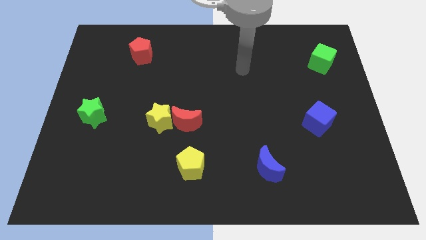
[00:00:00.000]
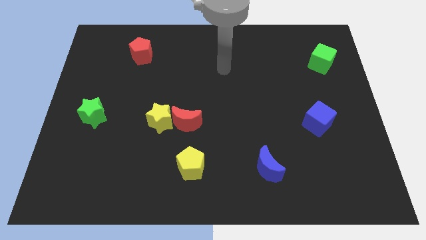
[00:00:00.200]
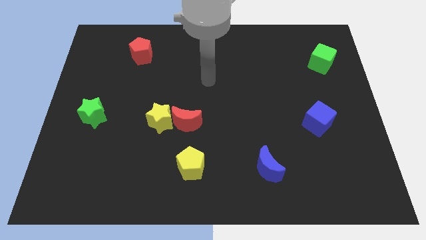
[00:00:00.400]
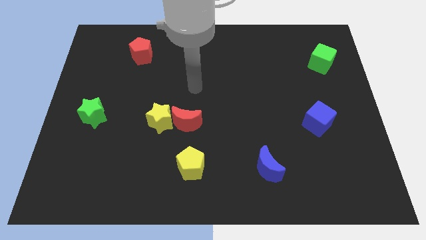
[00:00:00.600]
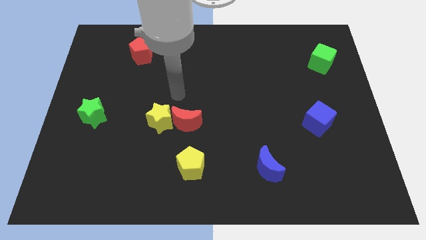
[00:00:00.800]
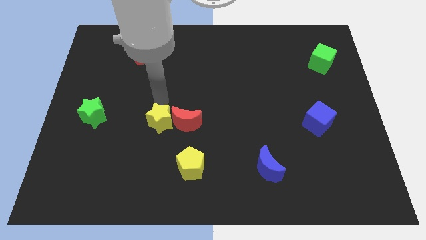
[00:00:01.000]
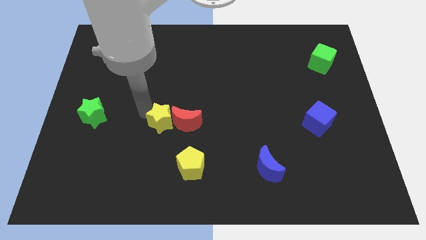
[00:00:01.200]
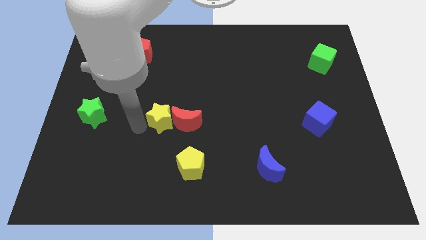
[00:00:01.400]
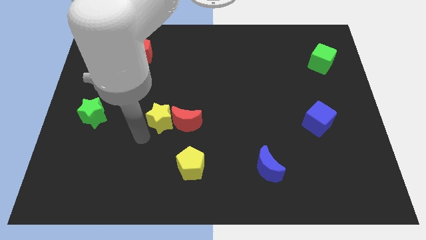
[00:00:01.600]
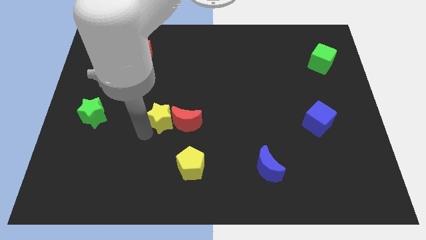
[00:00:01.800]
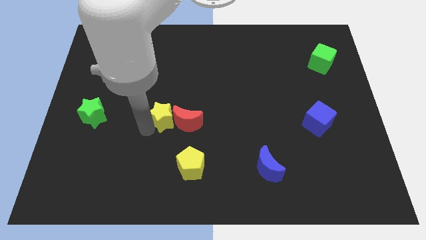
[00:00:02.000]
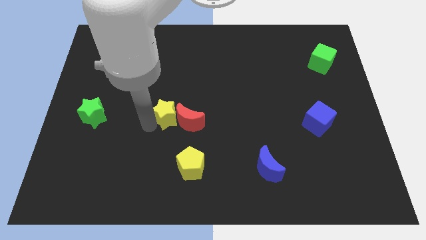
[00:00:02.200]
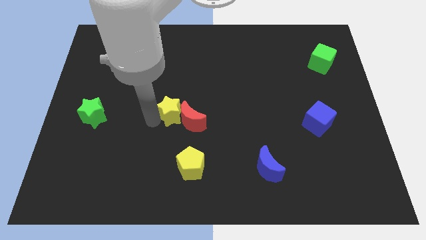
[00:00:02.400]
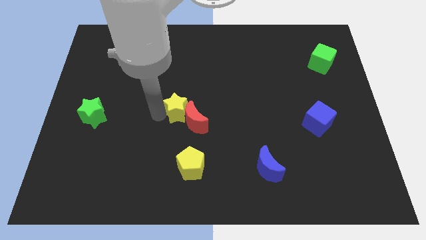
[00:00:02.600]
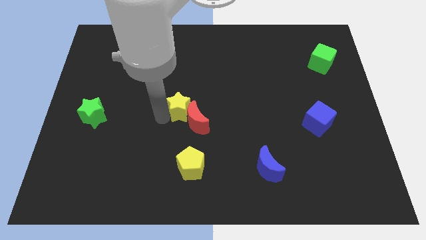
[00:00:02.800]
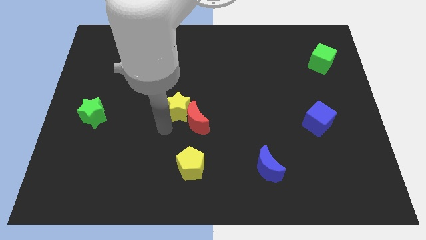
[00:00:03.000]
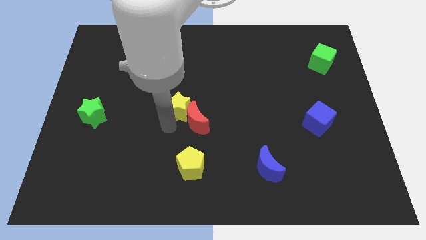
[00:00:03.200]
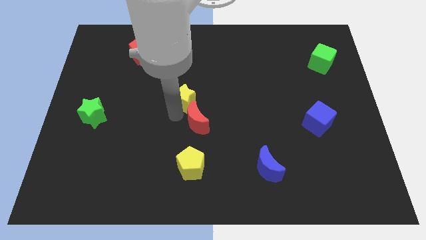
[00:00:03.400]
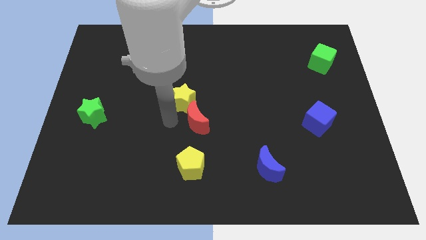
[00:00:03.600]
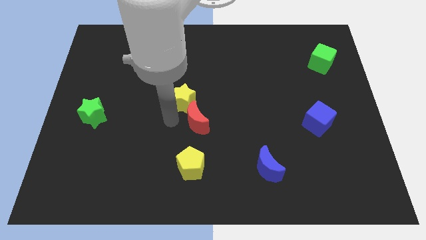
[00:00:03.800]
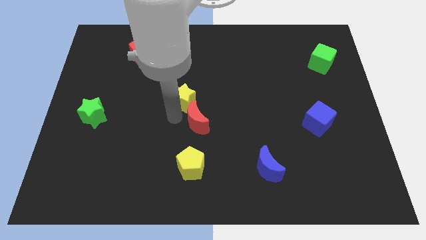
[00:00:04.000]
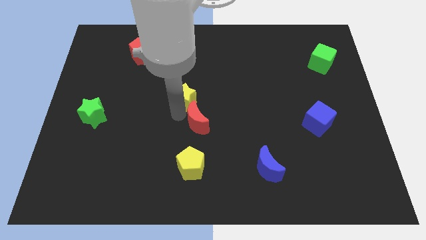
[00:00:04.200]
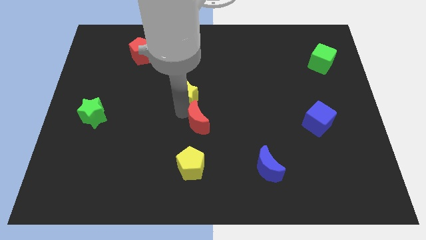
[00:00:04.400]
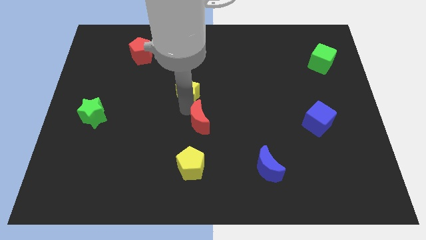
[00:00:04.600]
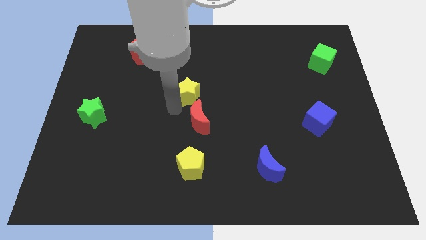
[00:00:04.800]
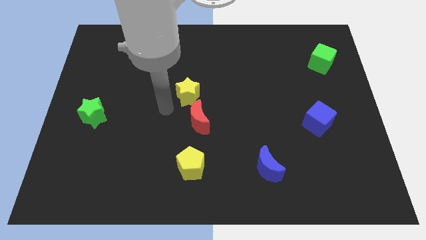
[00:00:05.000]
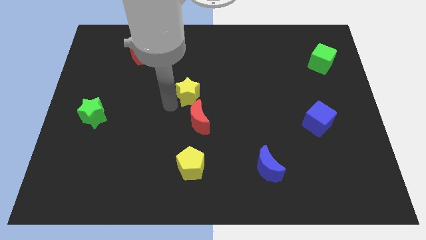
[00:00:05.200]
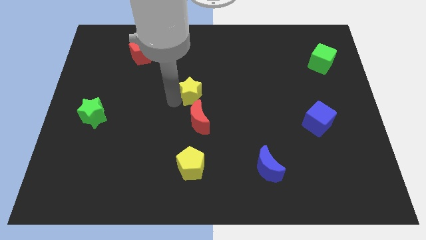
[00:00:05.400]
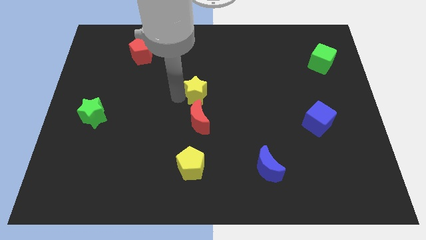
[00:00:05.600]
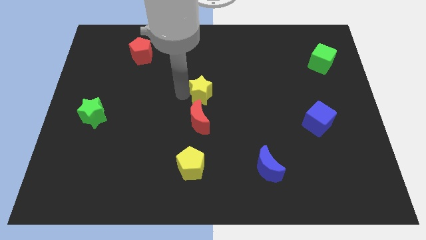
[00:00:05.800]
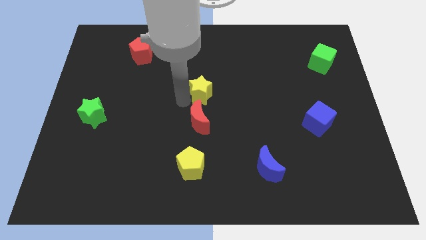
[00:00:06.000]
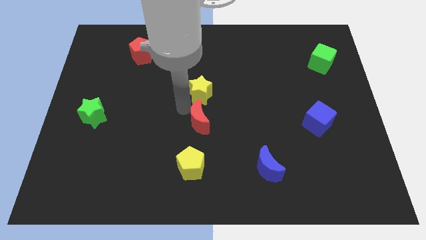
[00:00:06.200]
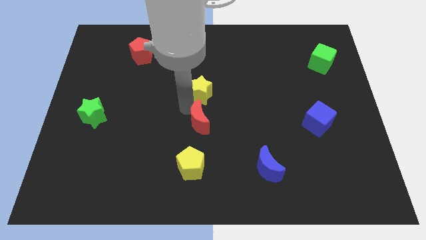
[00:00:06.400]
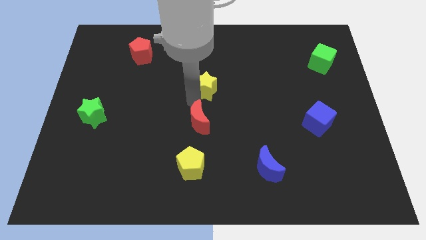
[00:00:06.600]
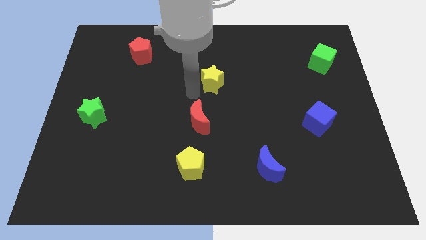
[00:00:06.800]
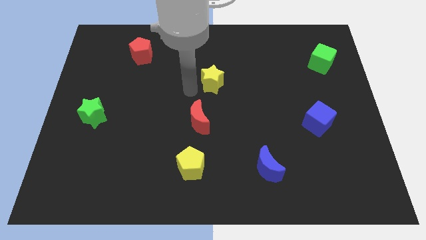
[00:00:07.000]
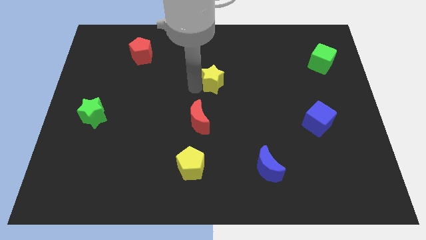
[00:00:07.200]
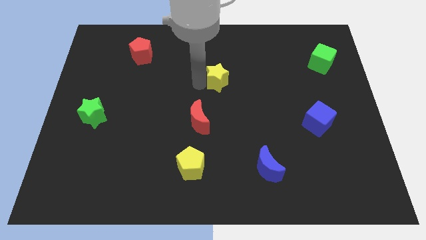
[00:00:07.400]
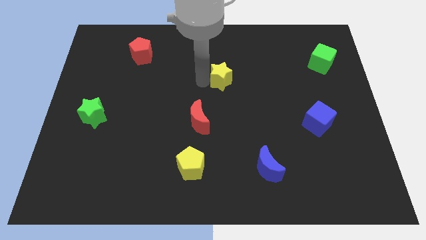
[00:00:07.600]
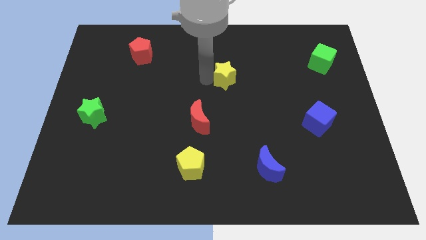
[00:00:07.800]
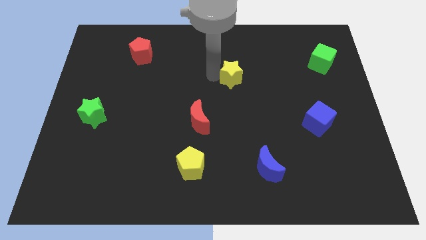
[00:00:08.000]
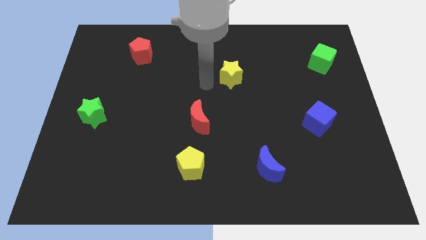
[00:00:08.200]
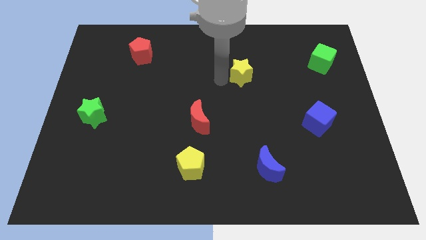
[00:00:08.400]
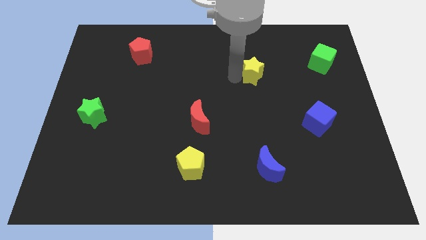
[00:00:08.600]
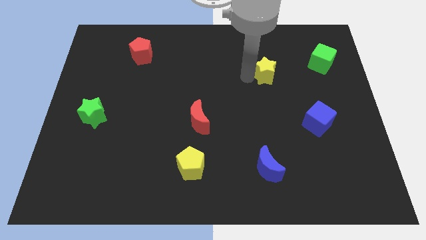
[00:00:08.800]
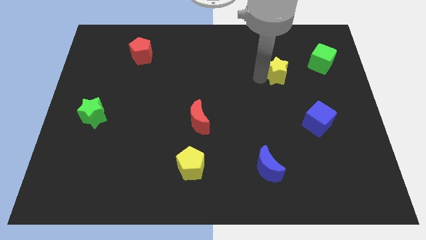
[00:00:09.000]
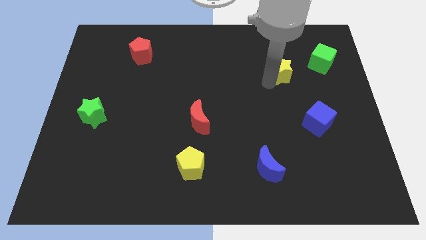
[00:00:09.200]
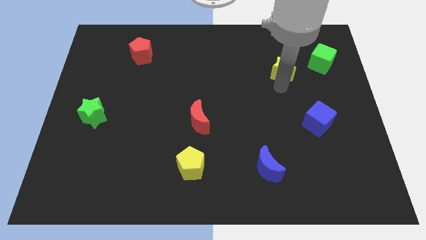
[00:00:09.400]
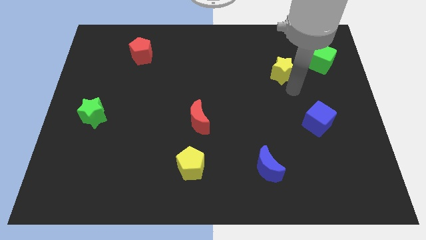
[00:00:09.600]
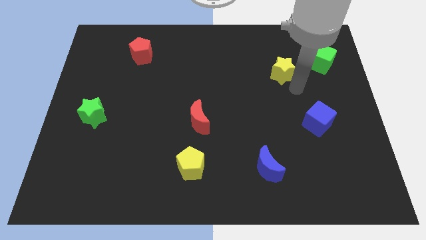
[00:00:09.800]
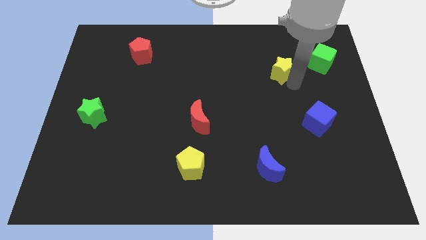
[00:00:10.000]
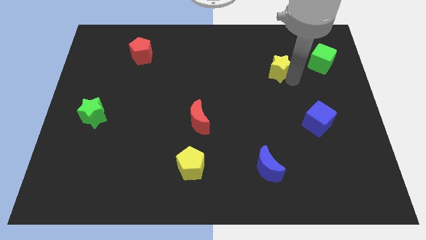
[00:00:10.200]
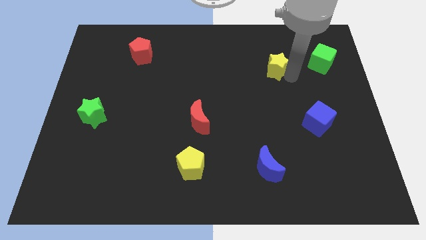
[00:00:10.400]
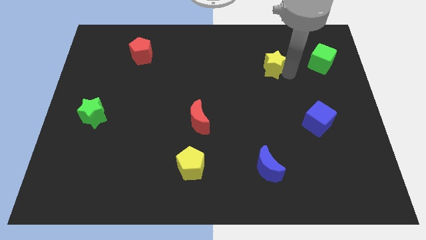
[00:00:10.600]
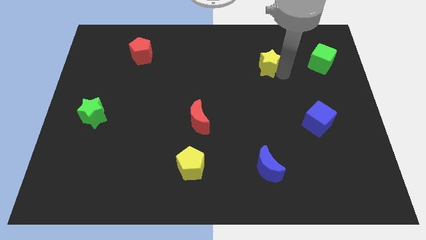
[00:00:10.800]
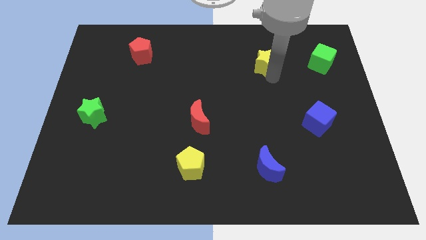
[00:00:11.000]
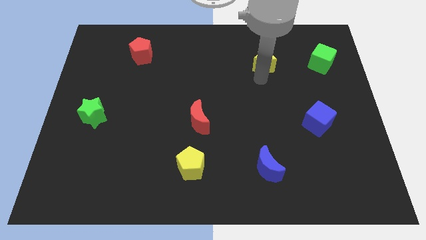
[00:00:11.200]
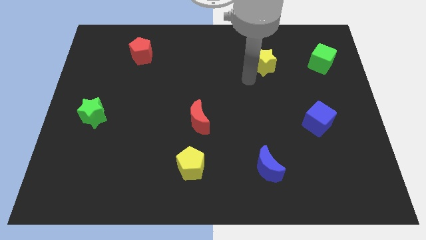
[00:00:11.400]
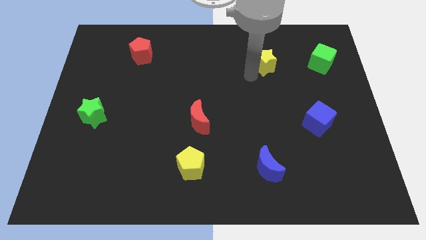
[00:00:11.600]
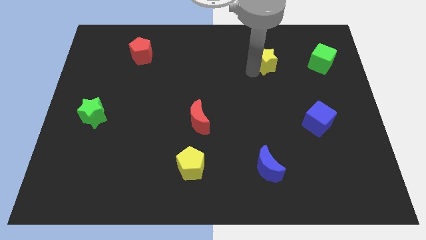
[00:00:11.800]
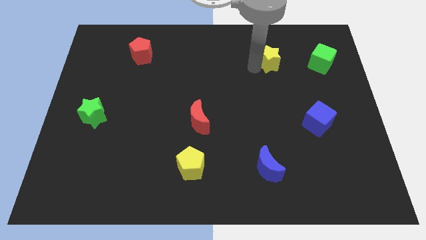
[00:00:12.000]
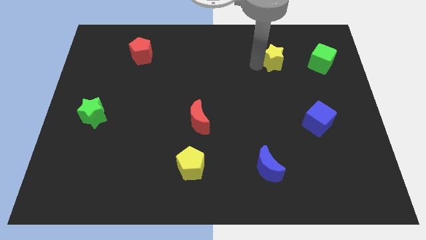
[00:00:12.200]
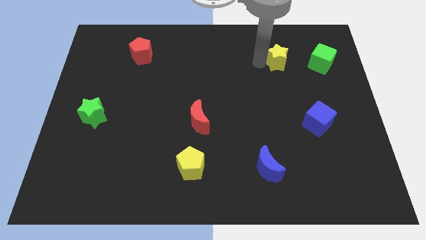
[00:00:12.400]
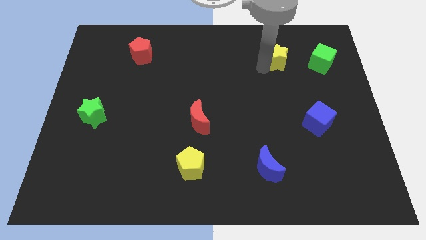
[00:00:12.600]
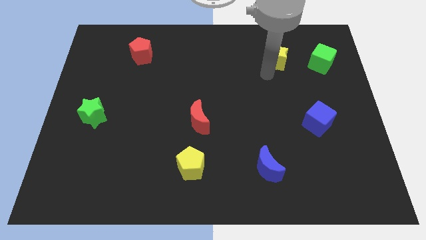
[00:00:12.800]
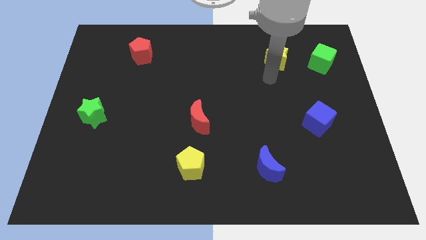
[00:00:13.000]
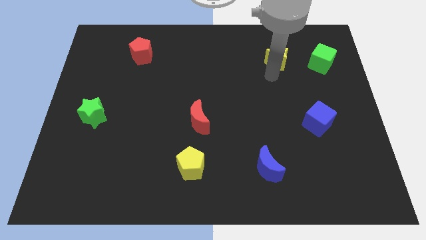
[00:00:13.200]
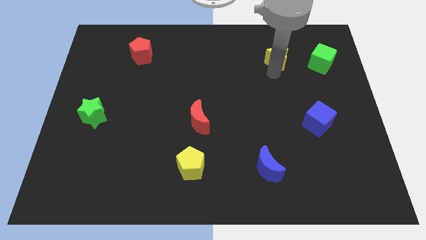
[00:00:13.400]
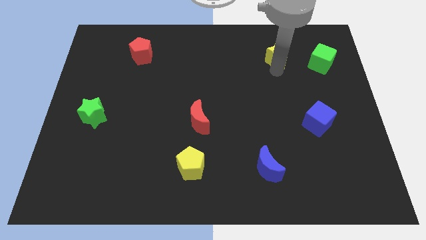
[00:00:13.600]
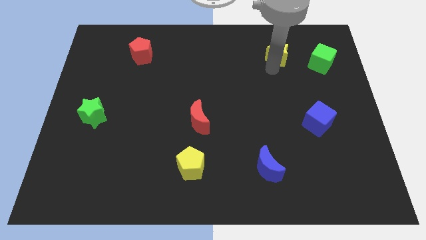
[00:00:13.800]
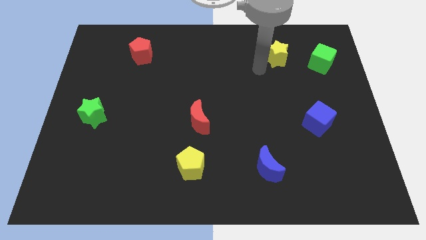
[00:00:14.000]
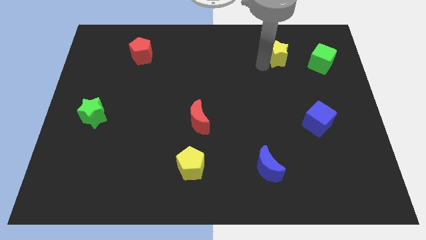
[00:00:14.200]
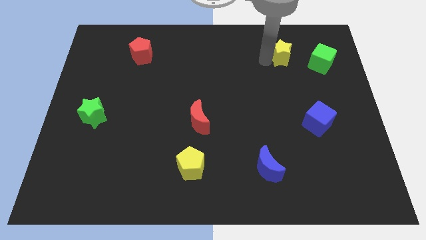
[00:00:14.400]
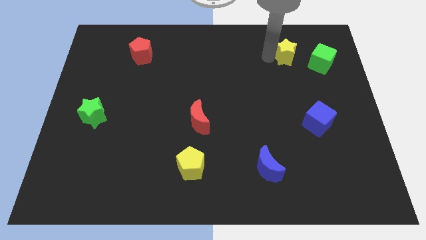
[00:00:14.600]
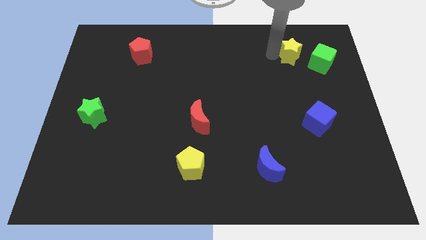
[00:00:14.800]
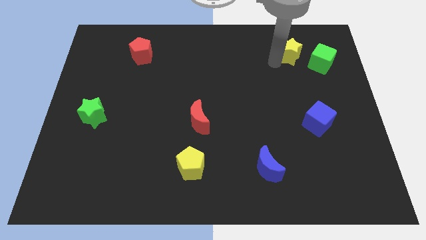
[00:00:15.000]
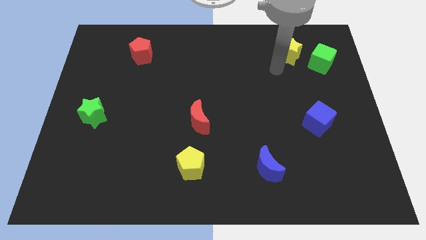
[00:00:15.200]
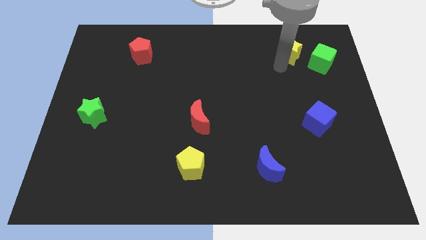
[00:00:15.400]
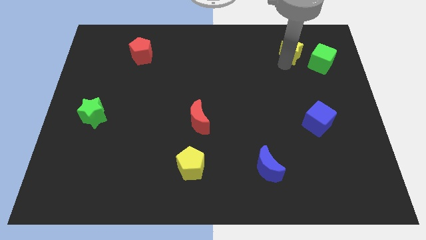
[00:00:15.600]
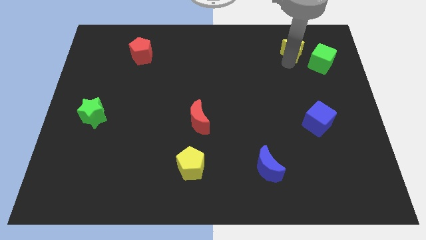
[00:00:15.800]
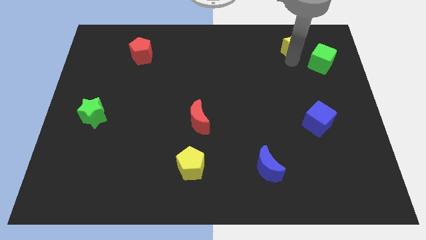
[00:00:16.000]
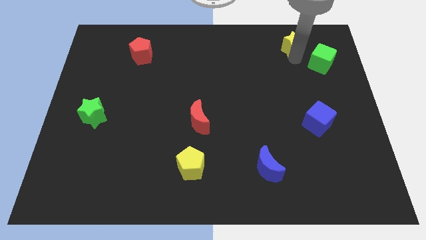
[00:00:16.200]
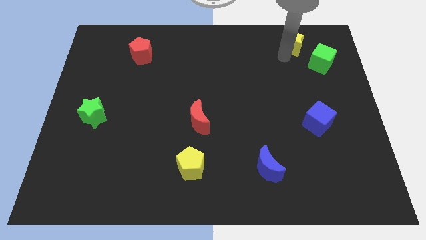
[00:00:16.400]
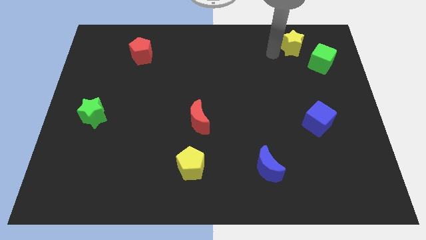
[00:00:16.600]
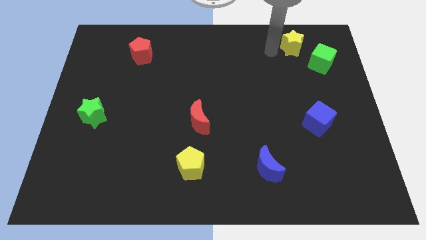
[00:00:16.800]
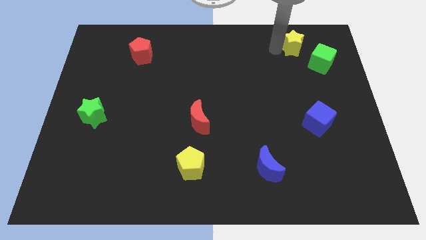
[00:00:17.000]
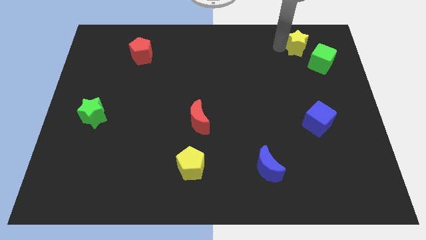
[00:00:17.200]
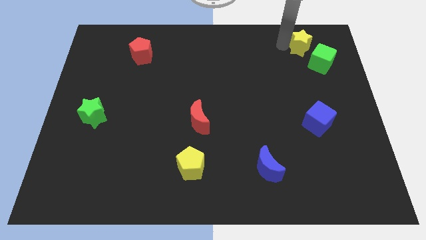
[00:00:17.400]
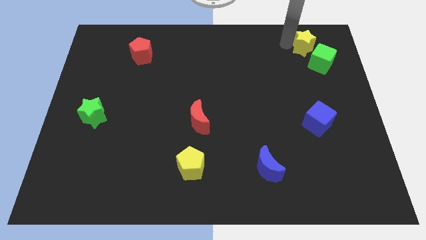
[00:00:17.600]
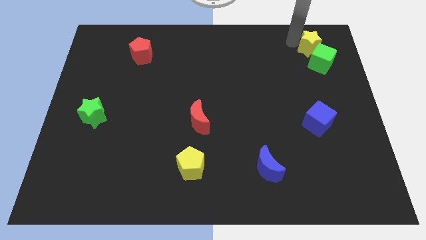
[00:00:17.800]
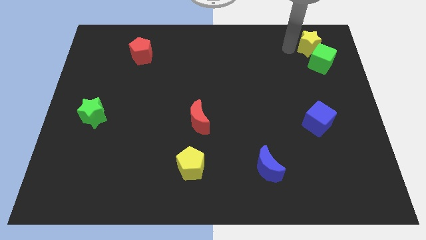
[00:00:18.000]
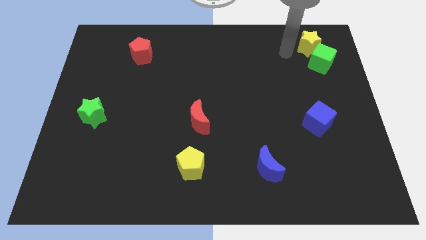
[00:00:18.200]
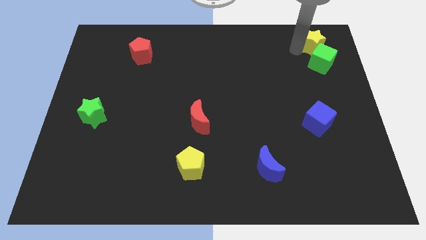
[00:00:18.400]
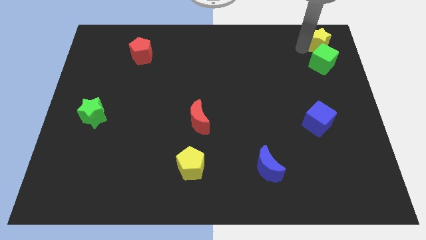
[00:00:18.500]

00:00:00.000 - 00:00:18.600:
slide the yellow star to the top right corner
